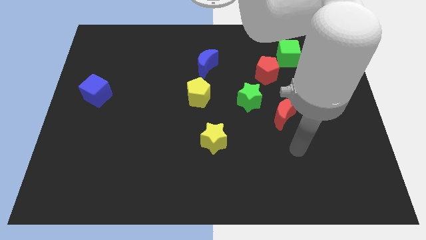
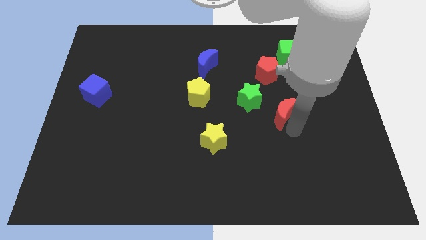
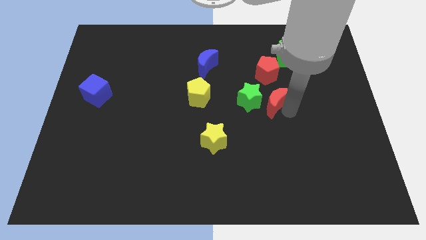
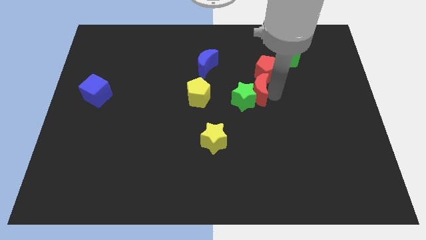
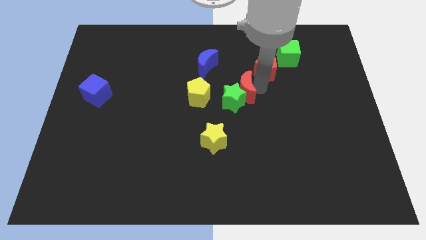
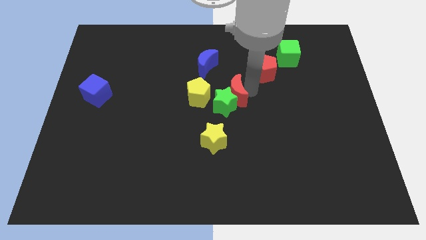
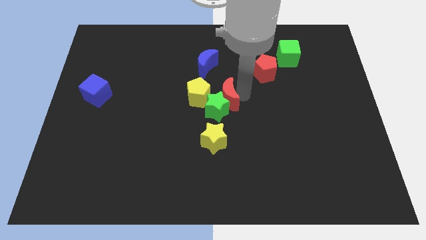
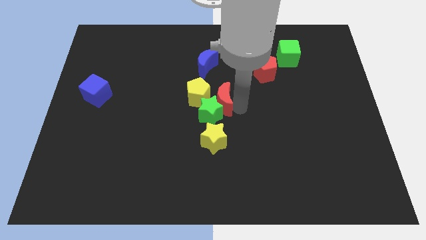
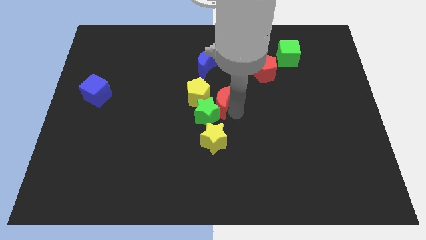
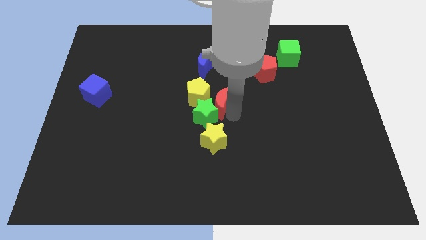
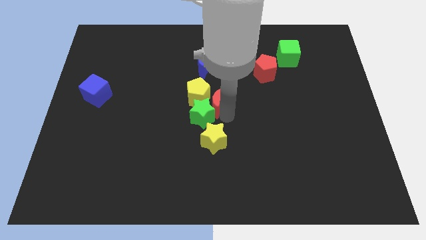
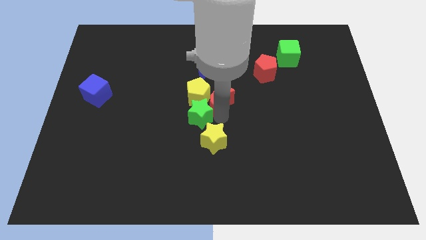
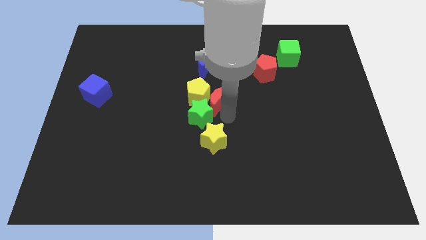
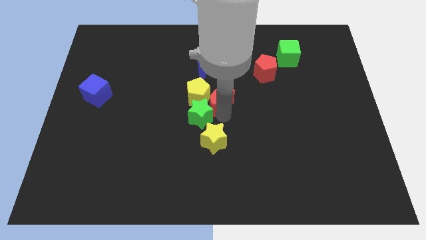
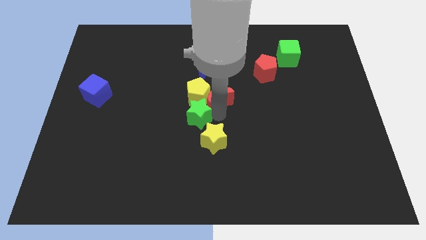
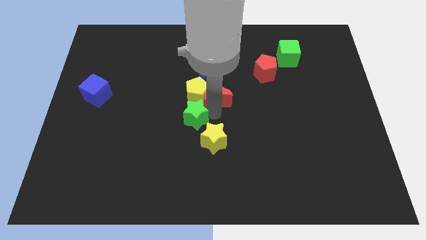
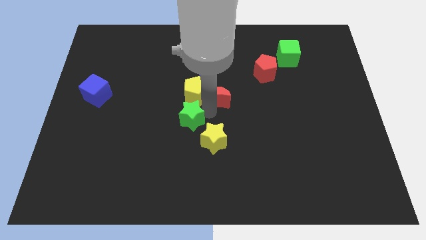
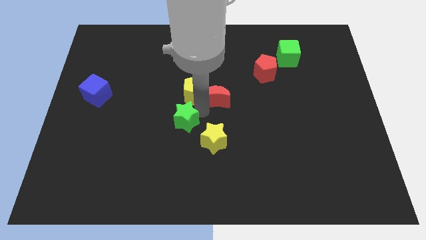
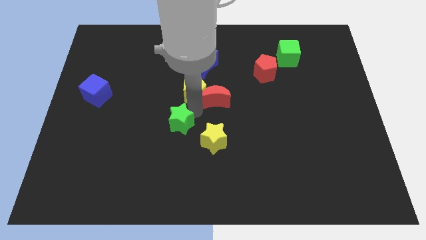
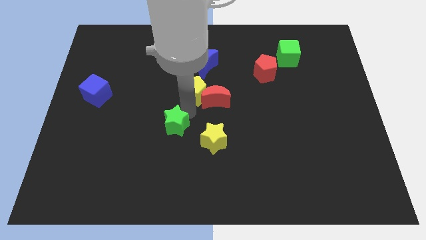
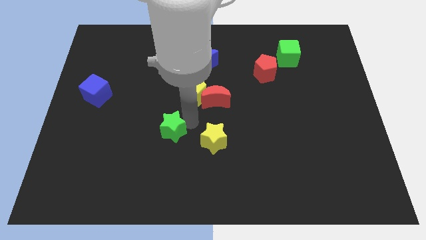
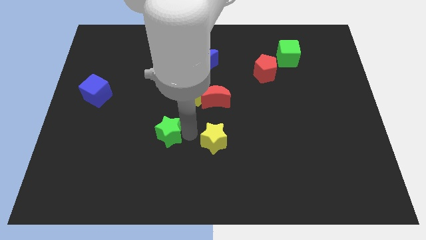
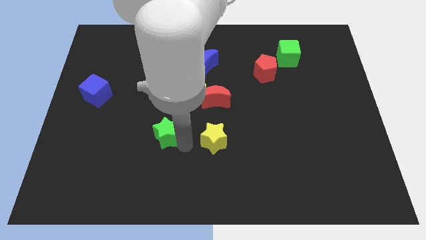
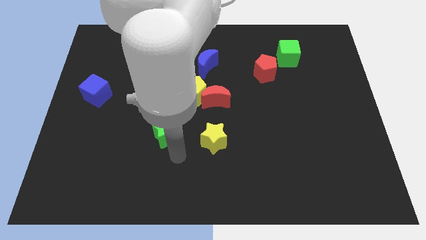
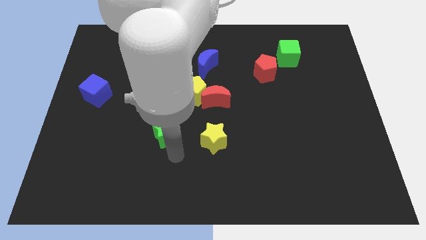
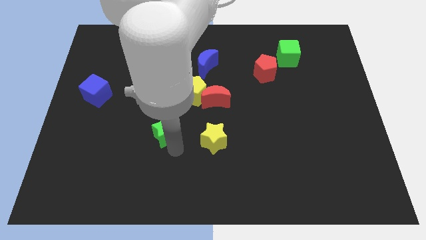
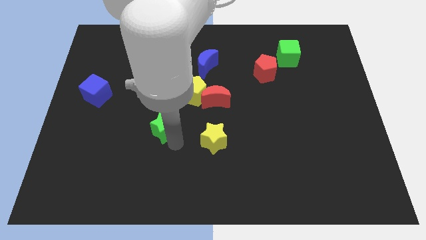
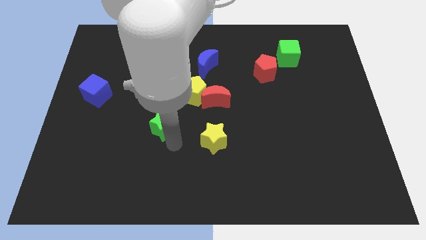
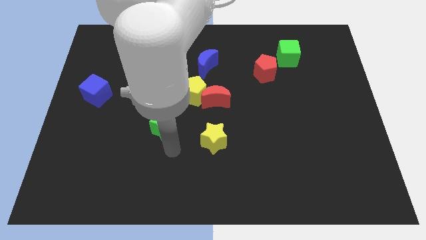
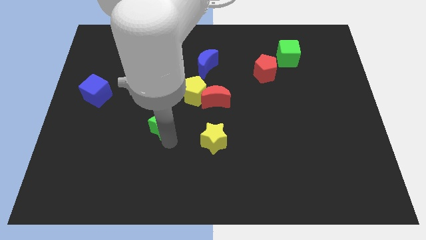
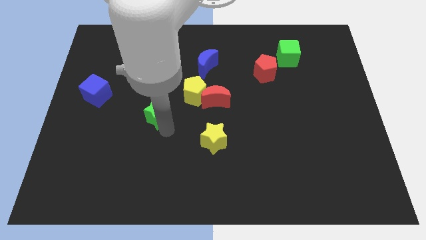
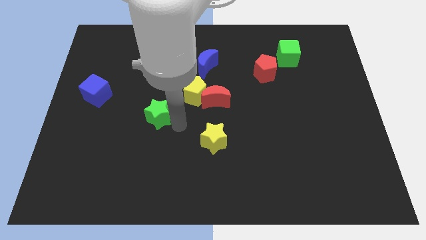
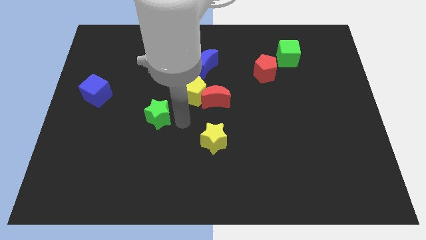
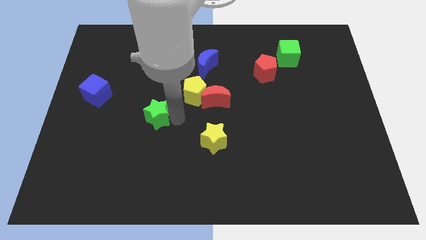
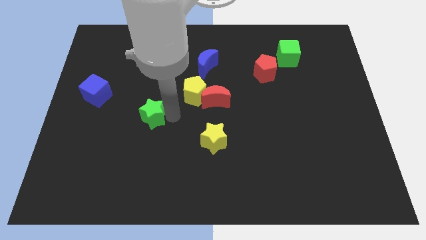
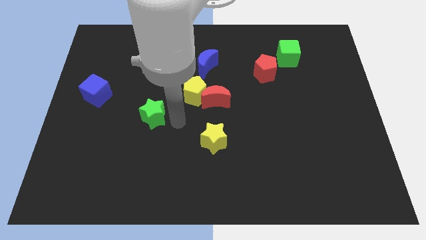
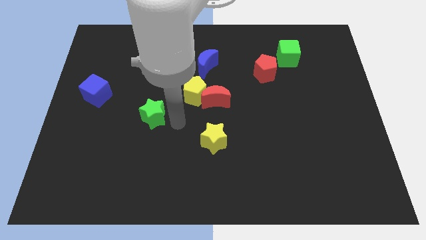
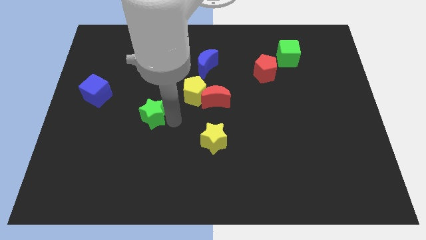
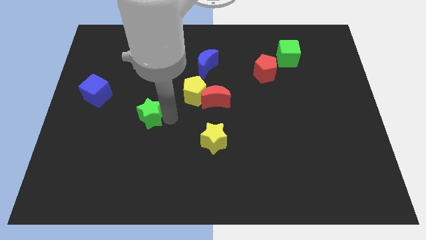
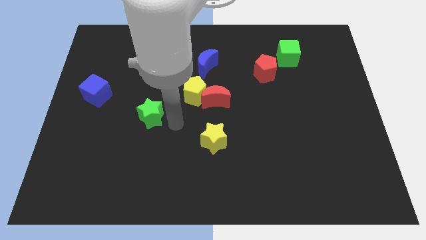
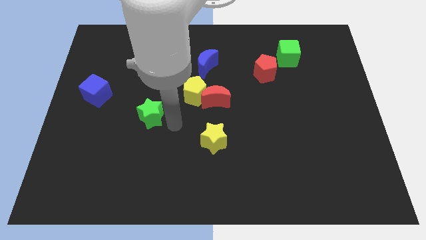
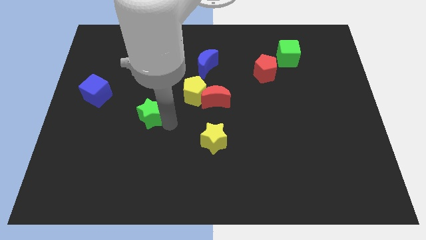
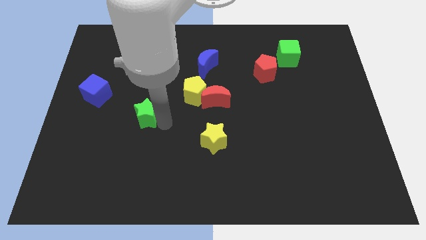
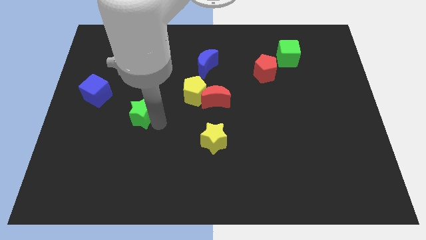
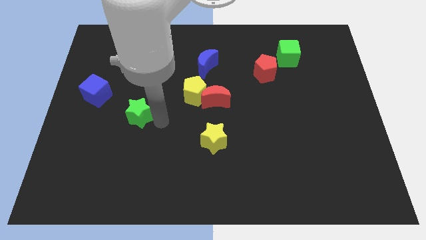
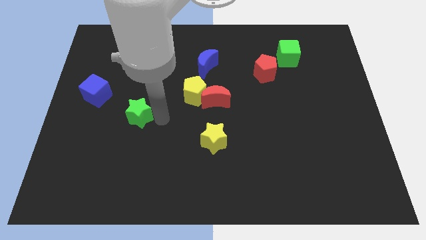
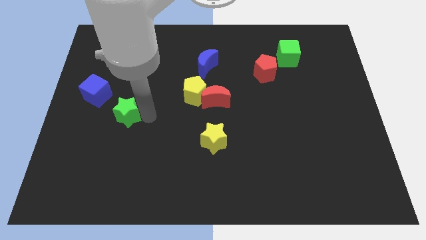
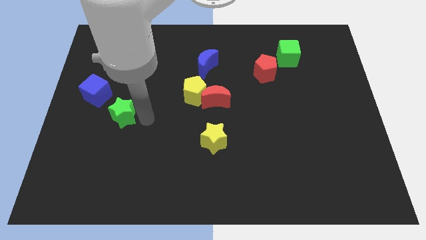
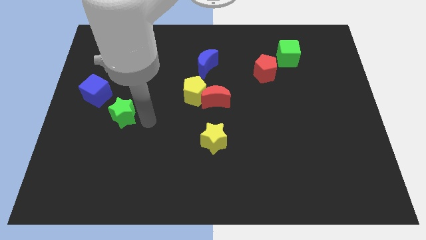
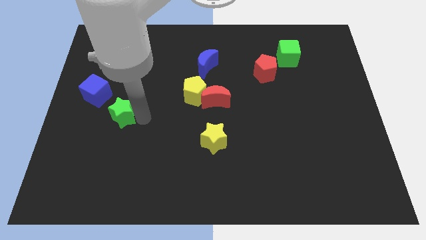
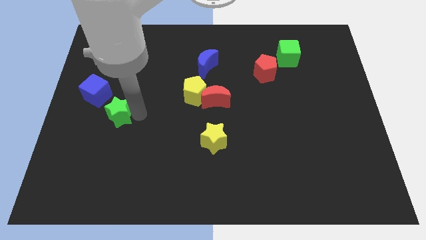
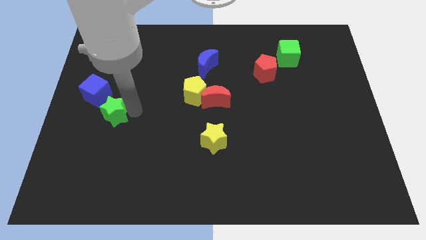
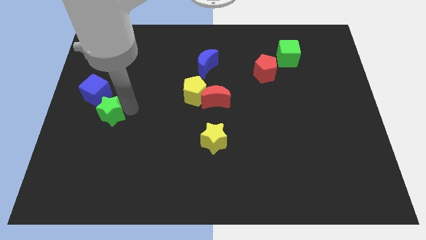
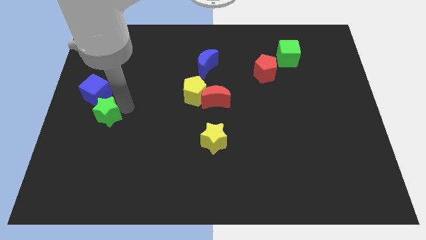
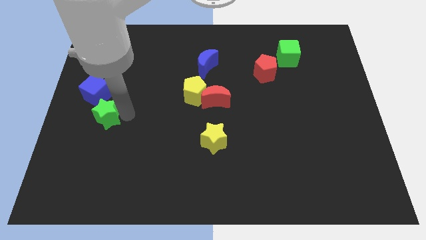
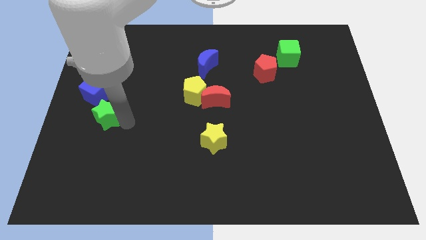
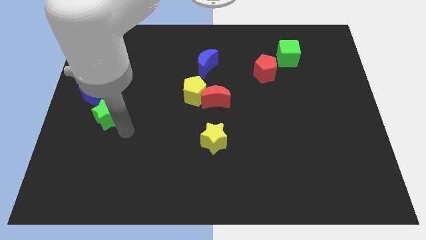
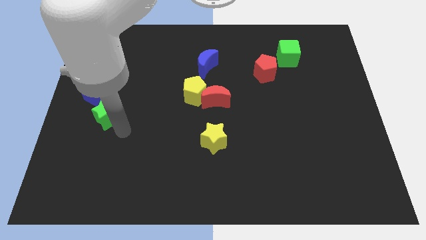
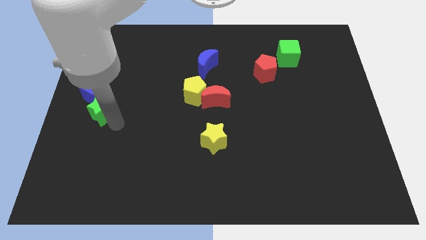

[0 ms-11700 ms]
push the green star to the left side

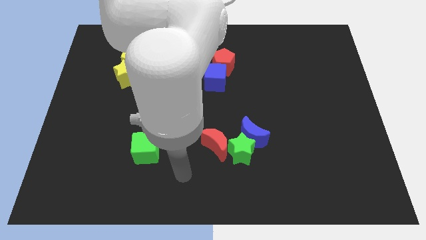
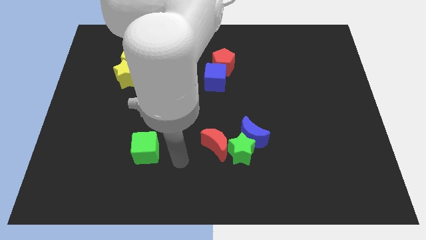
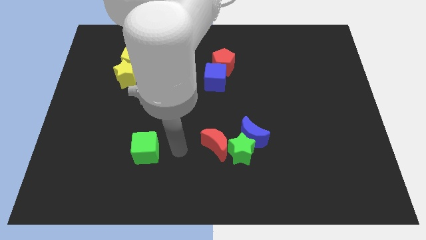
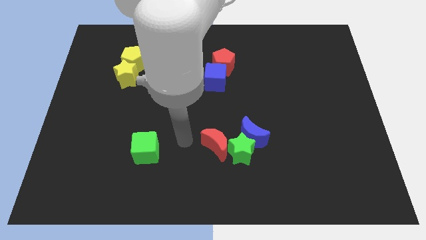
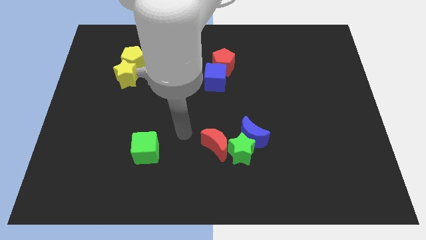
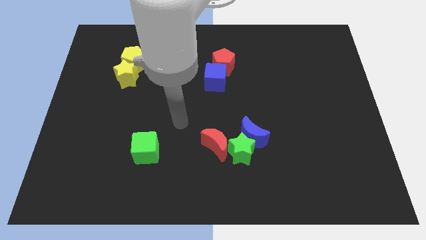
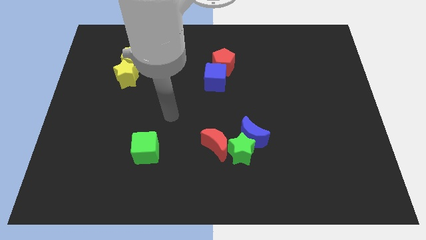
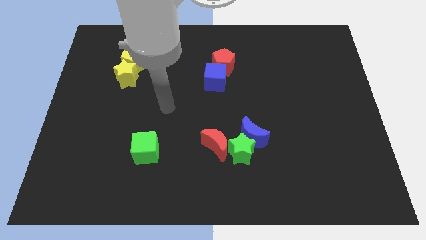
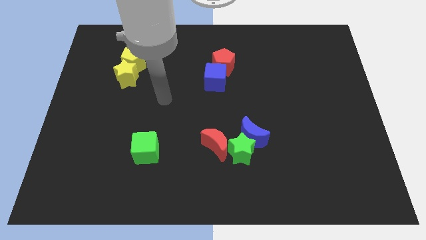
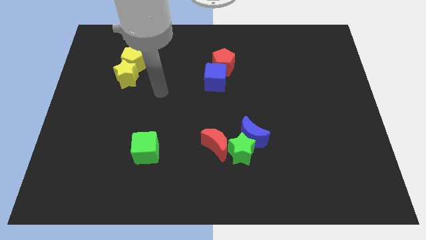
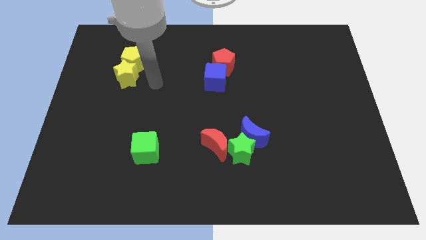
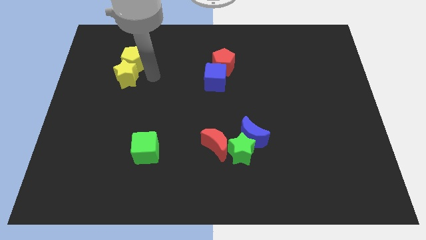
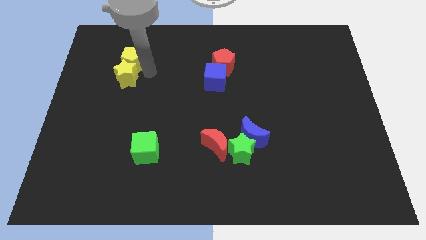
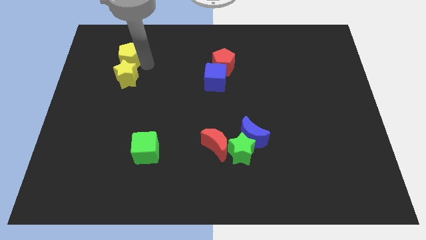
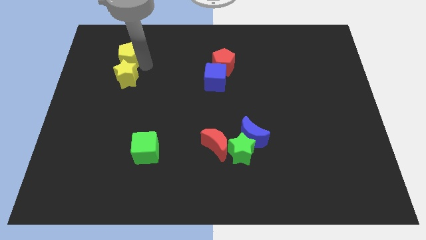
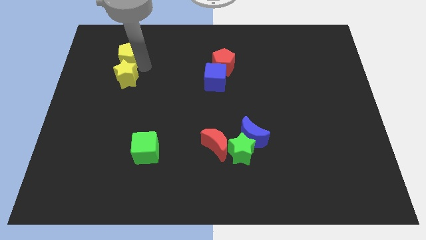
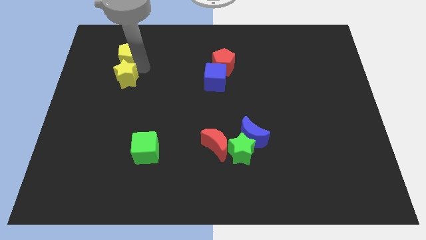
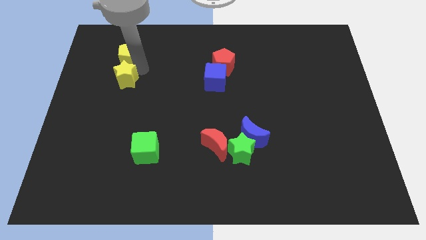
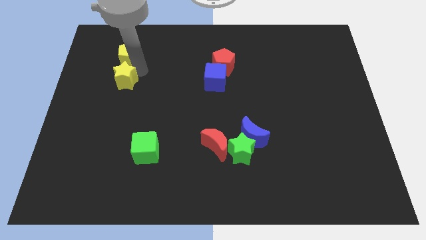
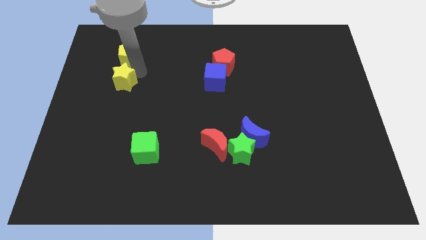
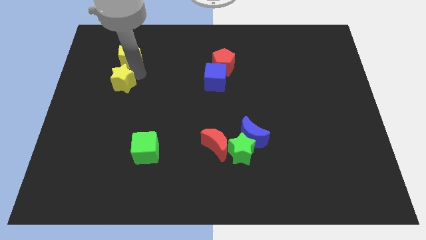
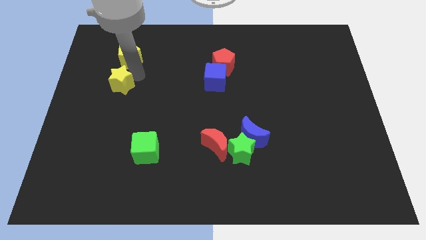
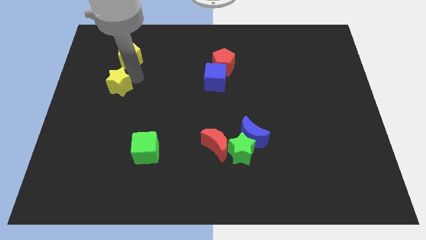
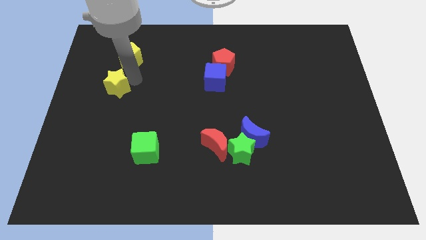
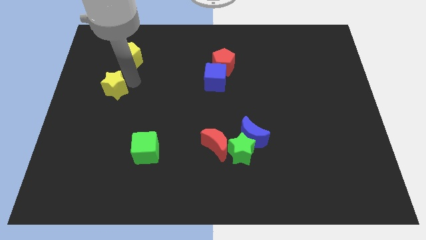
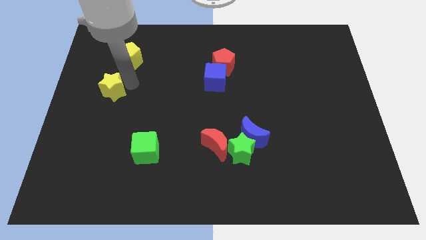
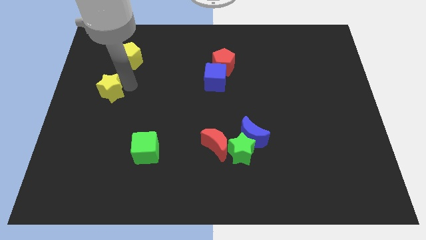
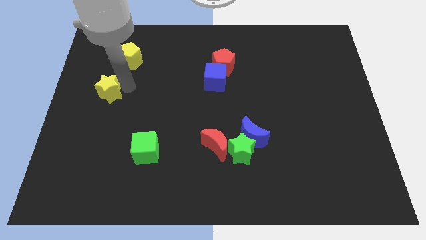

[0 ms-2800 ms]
put the yellow star to the left side
